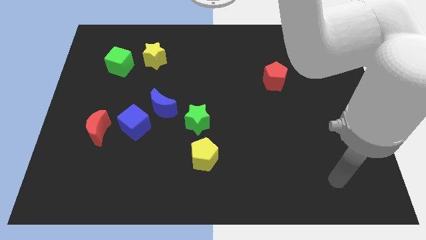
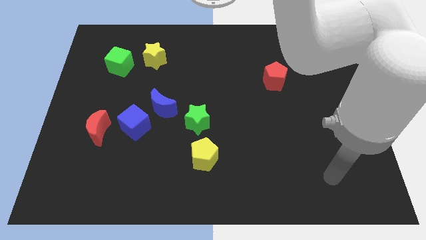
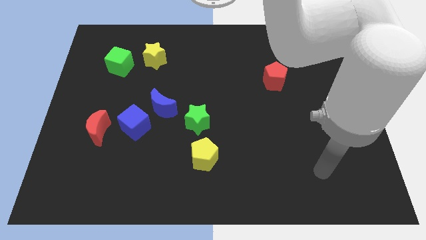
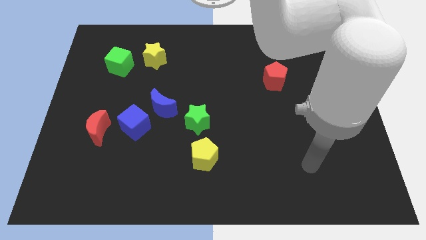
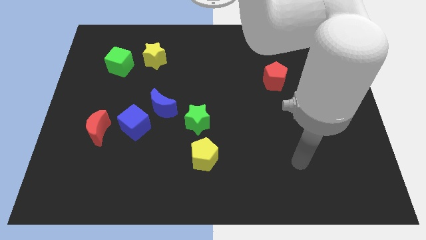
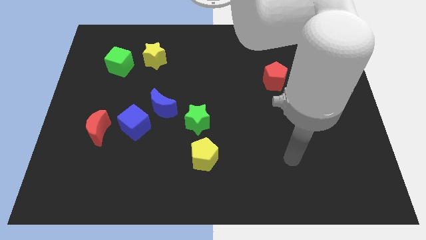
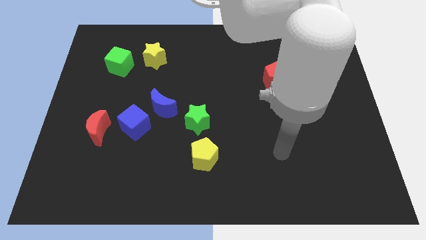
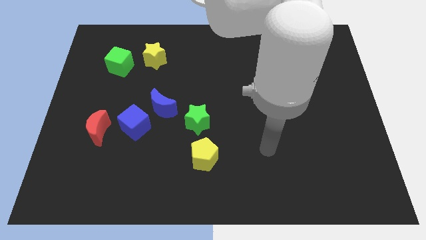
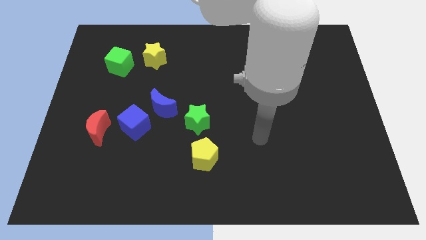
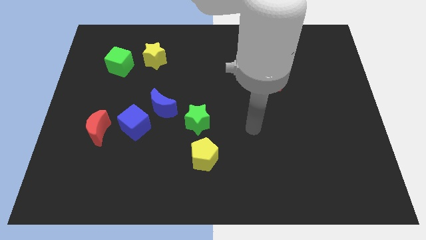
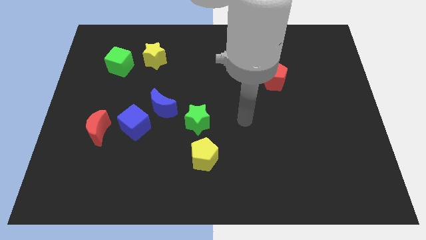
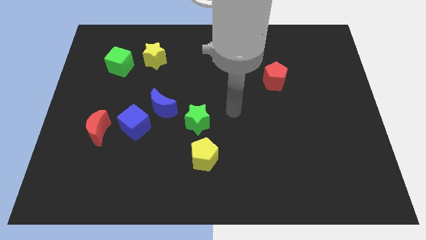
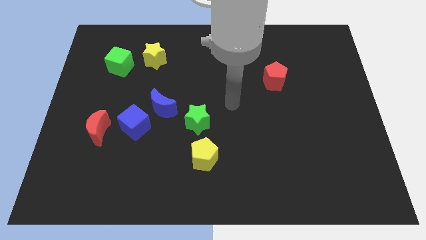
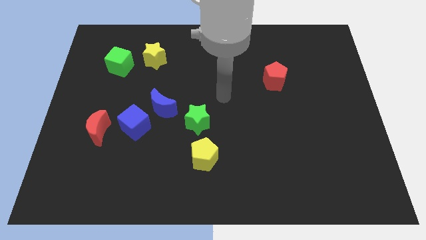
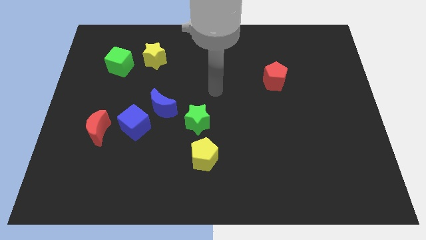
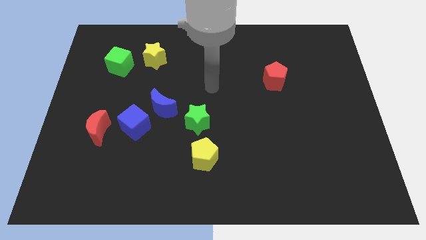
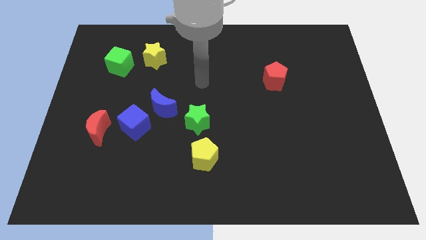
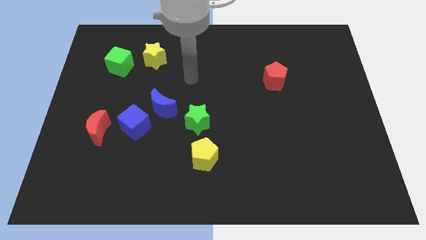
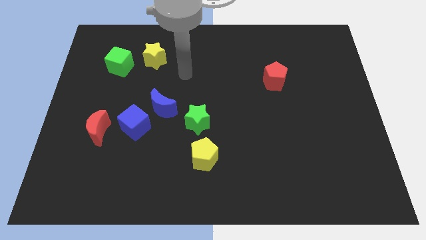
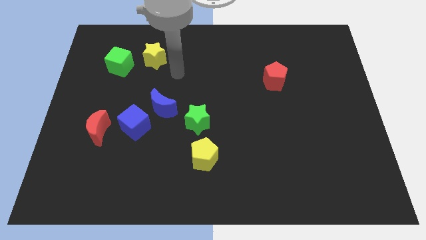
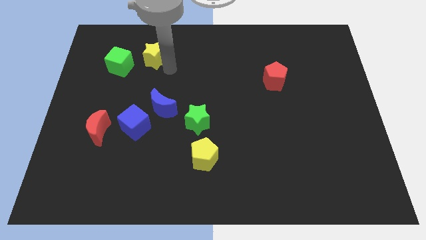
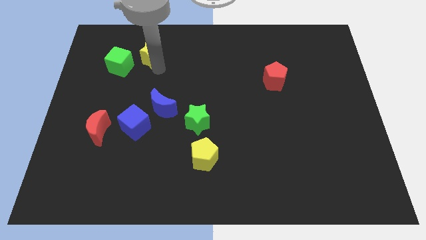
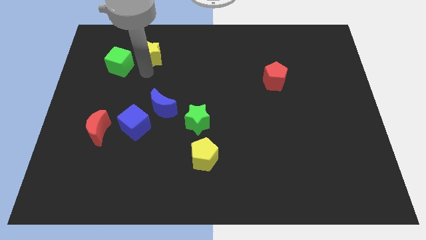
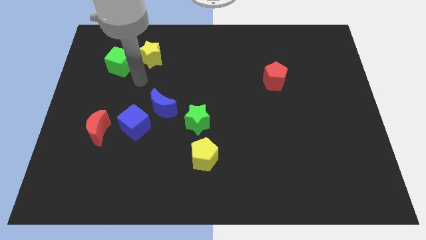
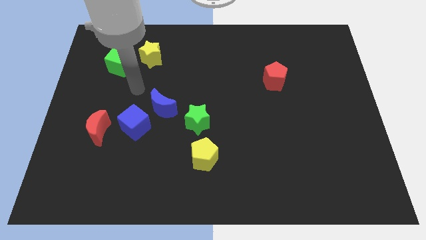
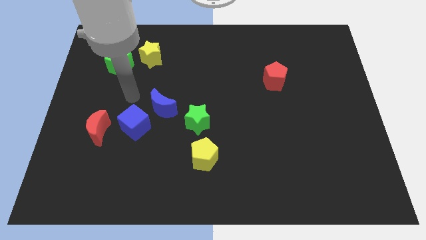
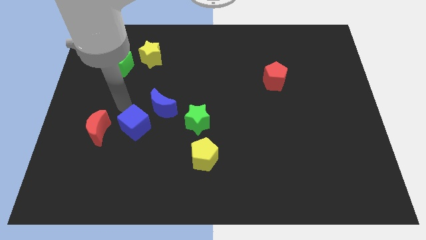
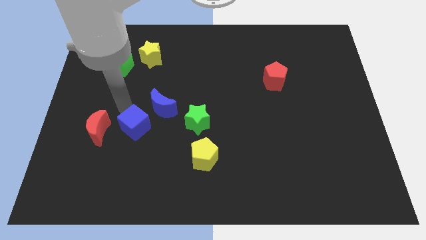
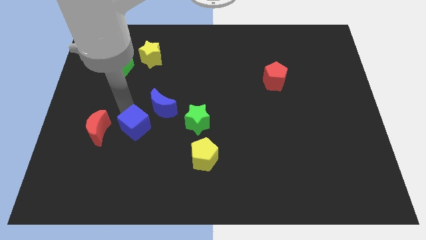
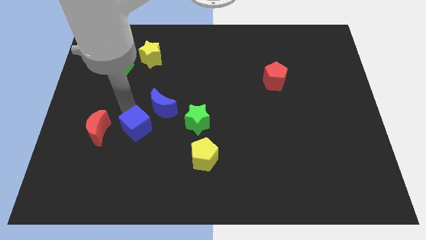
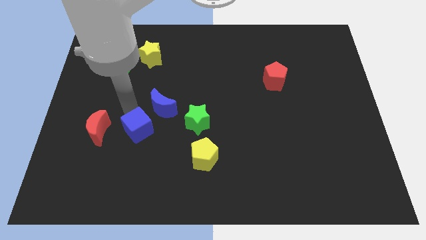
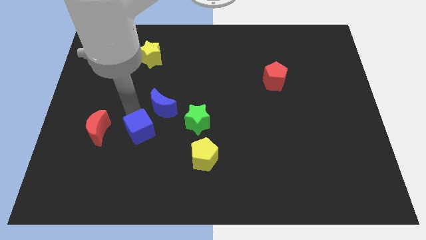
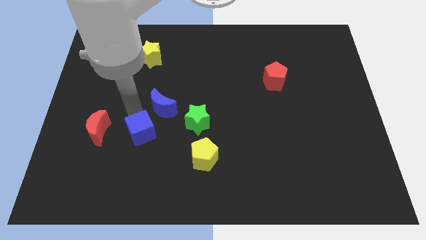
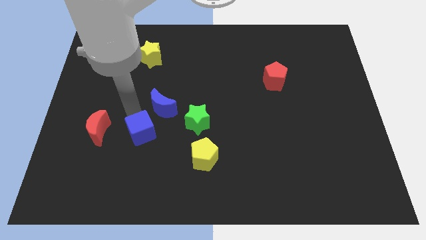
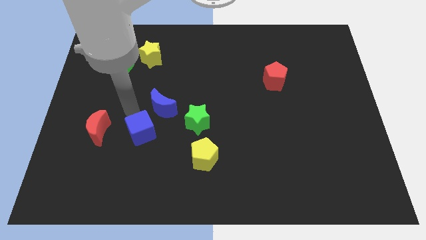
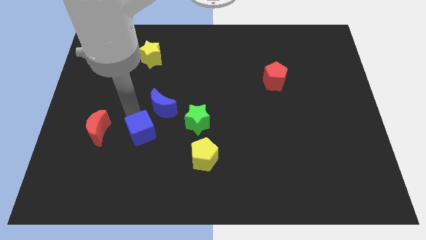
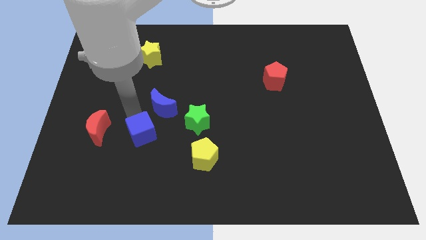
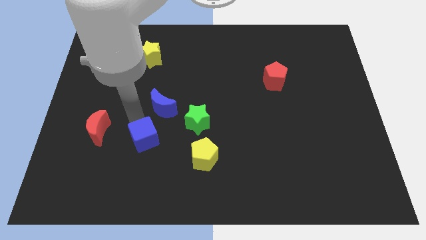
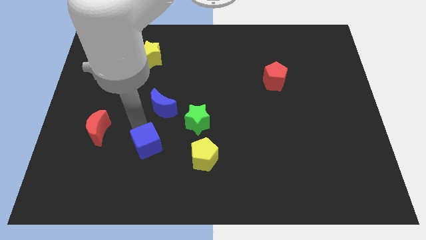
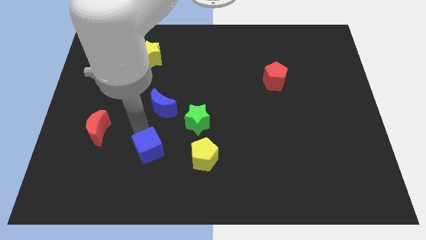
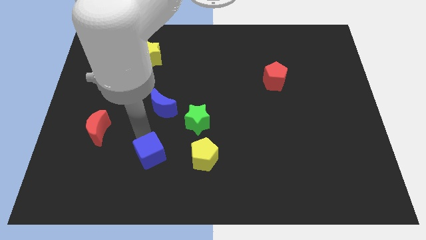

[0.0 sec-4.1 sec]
pull the blue cube apart from the blue moon and red moon

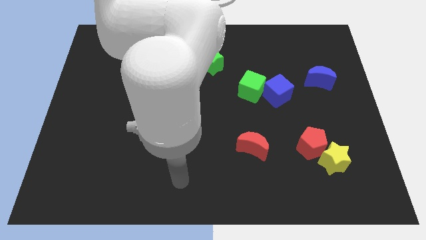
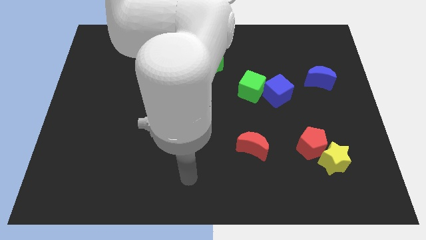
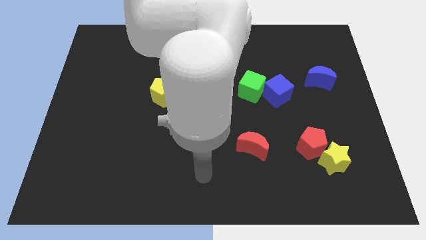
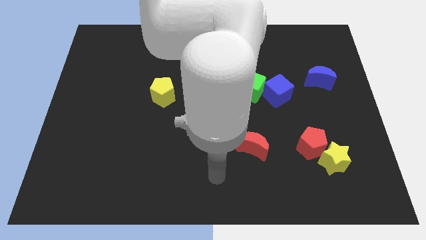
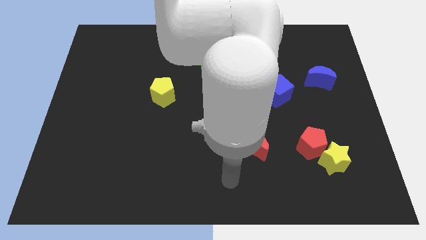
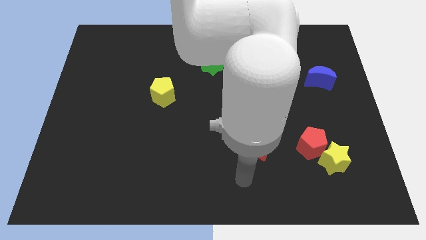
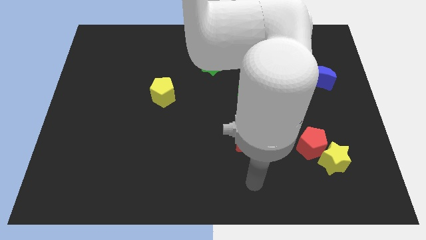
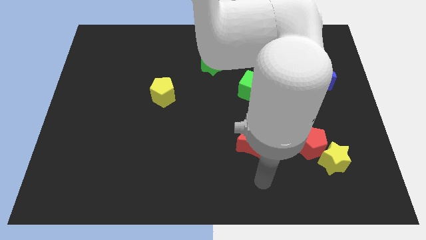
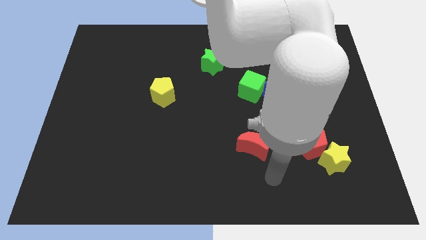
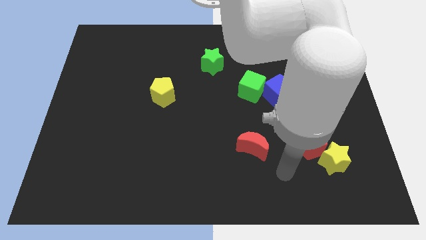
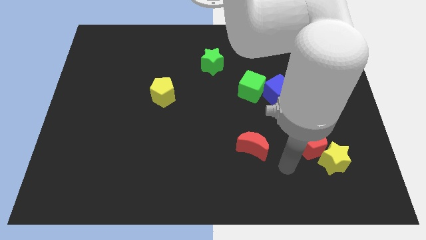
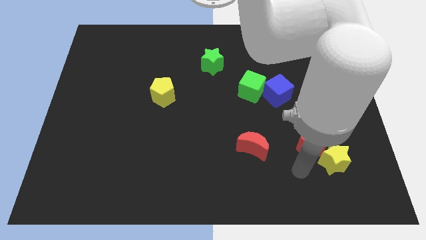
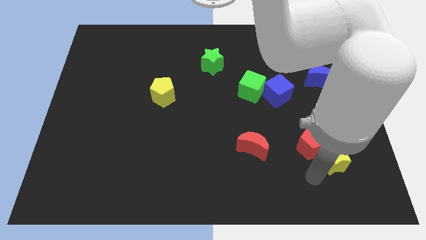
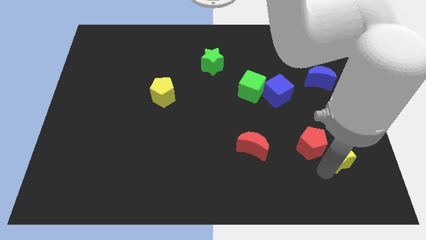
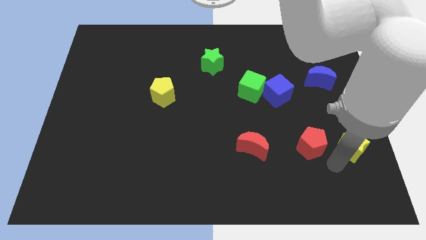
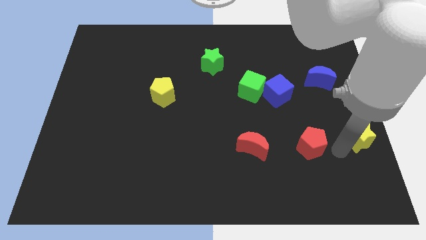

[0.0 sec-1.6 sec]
pull the red pentagon apart from the yellow star

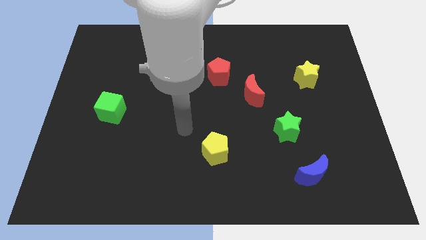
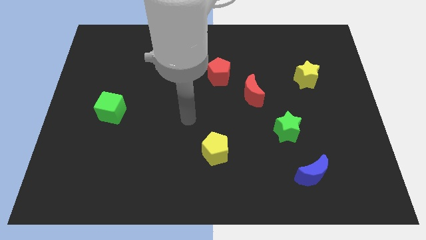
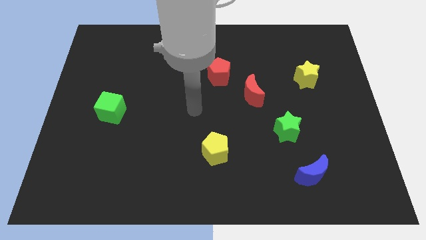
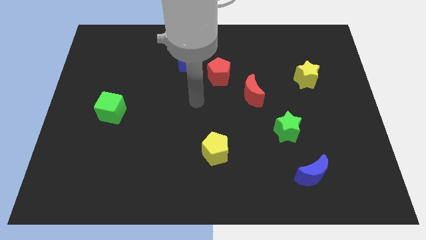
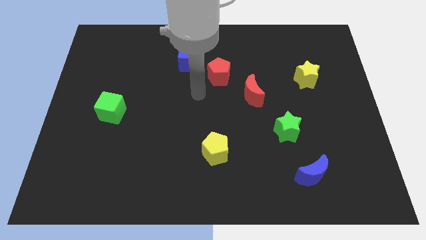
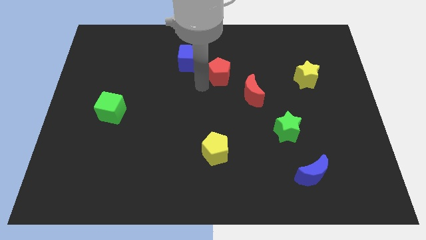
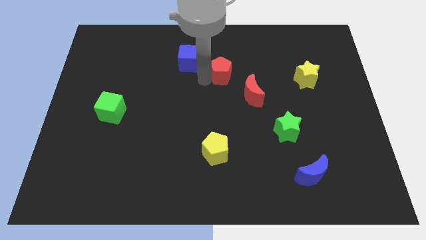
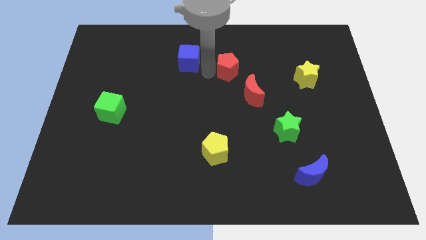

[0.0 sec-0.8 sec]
move the blue cube away from the red pentagon

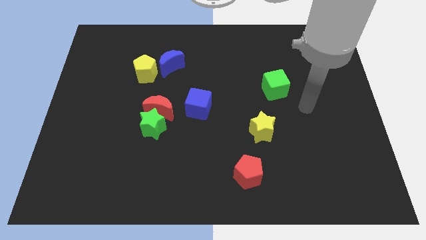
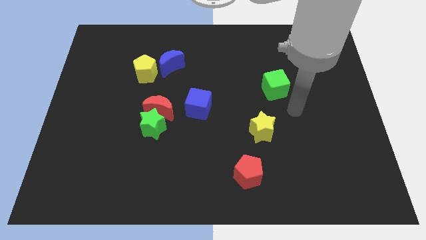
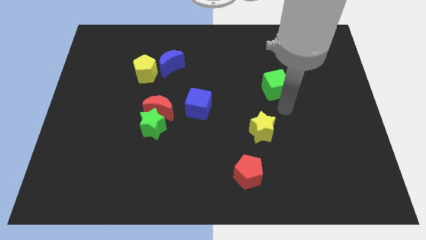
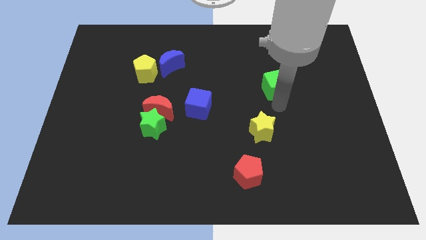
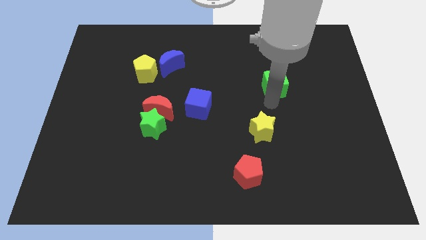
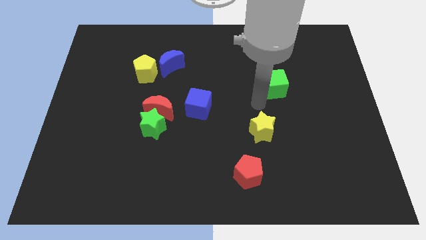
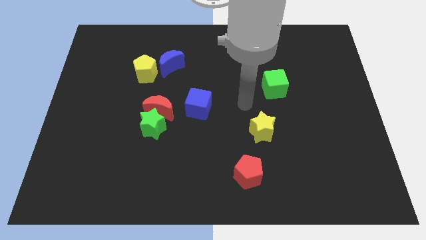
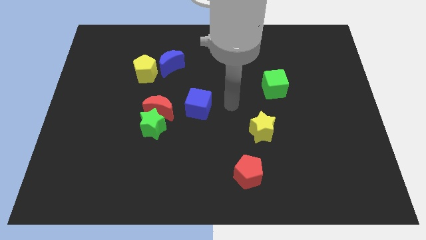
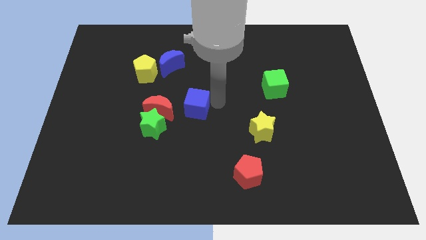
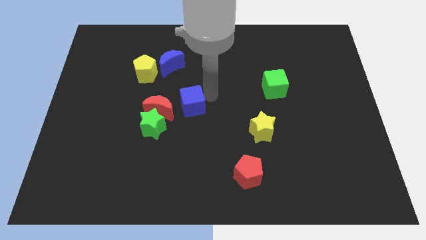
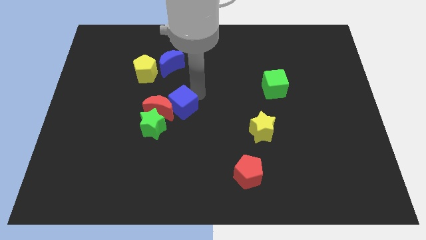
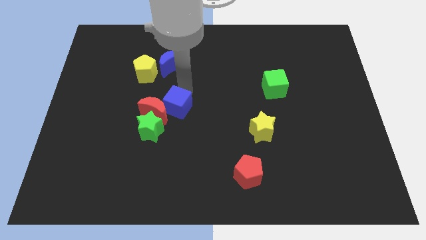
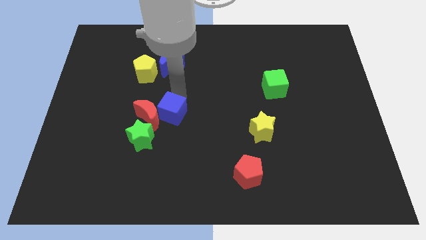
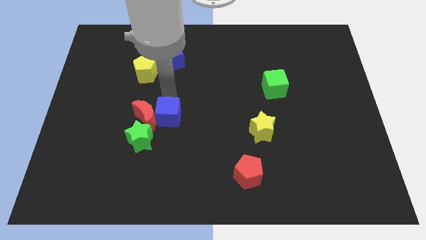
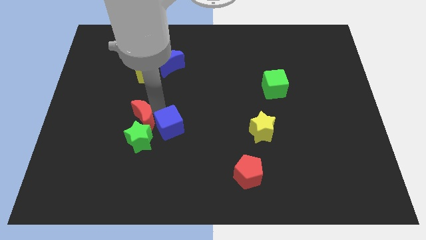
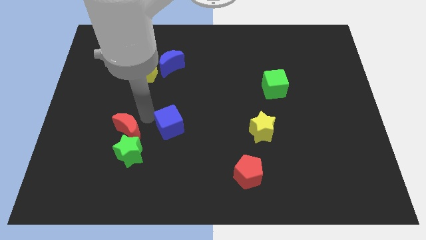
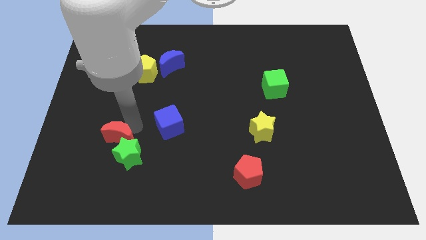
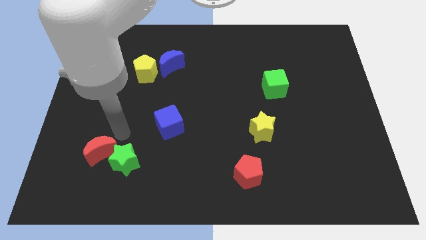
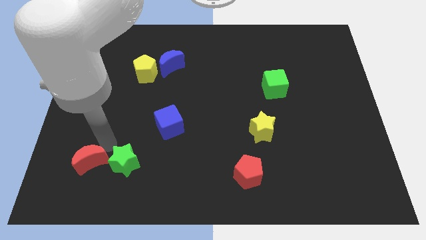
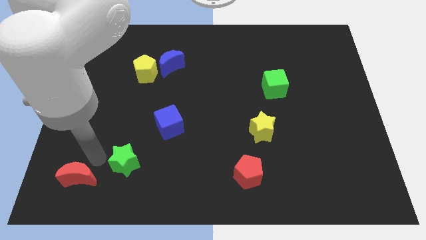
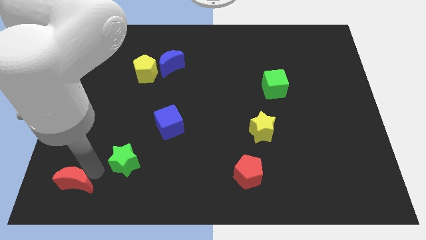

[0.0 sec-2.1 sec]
move the green star away from the red moon

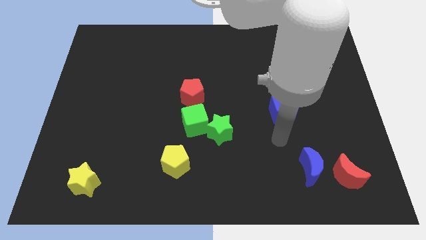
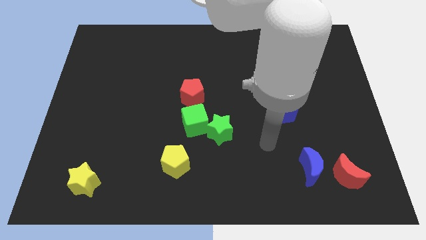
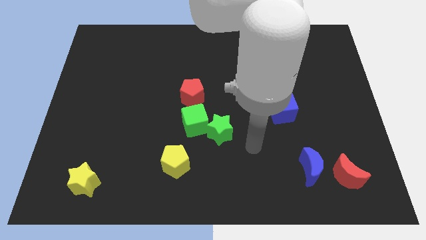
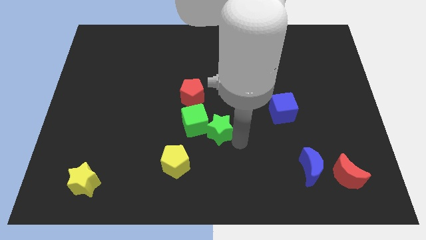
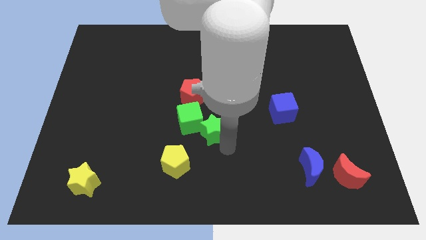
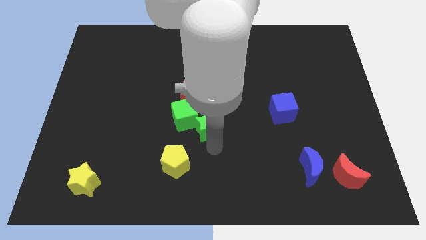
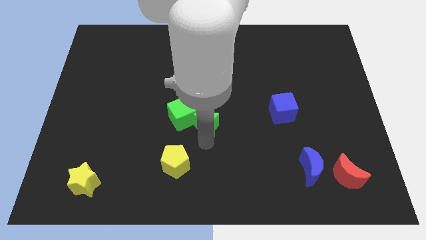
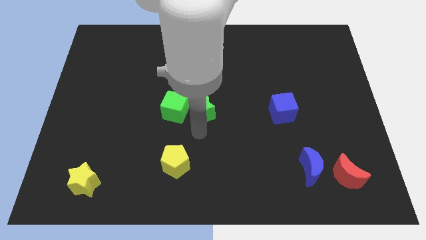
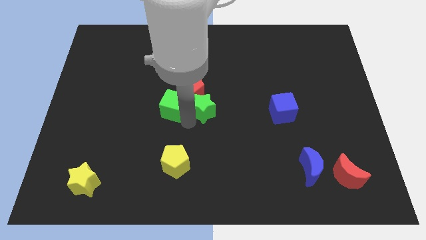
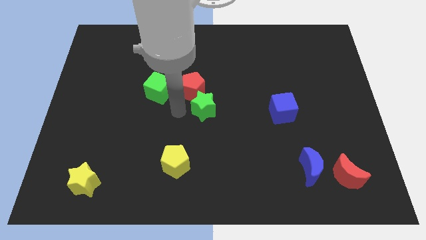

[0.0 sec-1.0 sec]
move the green star away from the green cube
